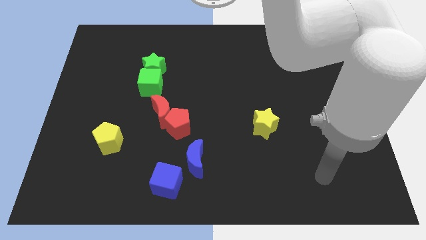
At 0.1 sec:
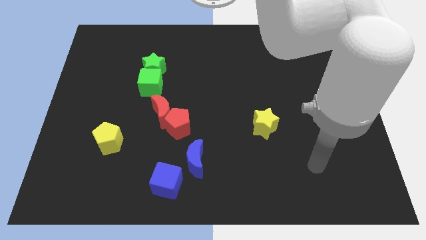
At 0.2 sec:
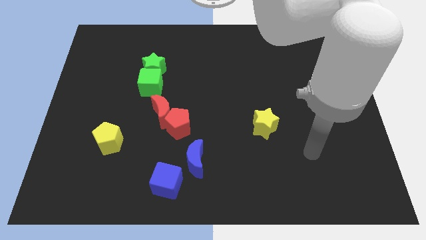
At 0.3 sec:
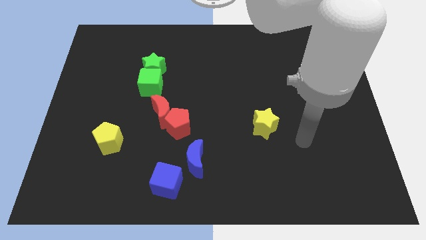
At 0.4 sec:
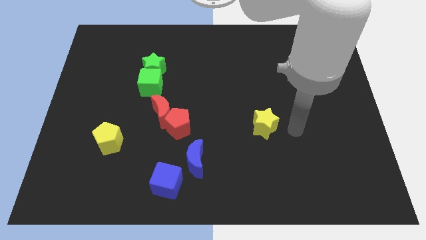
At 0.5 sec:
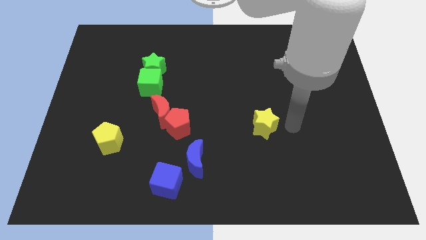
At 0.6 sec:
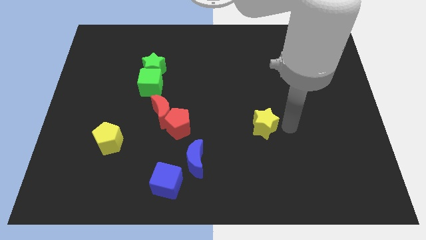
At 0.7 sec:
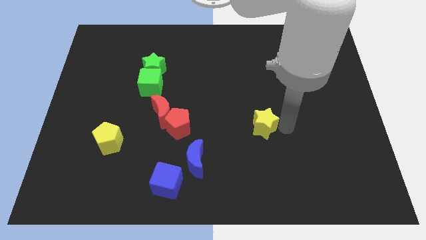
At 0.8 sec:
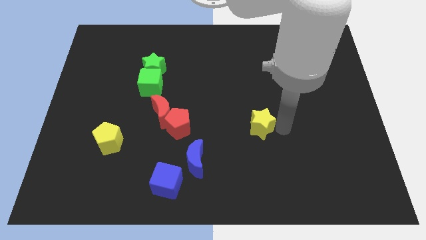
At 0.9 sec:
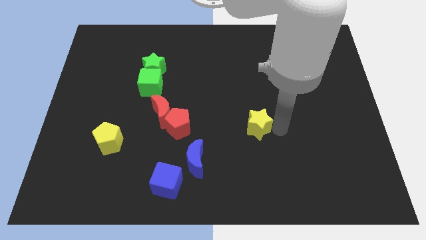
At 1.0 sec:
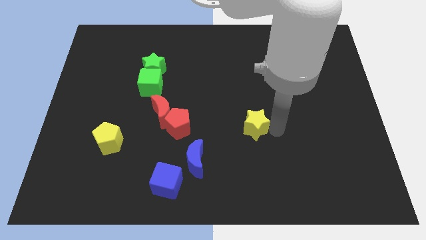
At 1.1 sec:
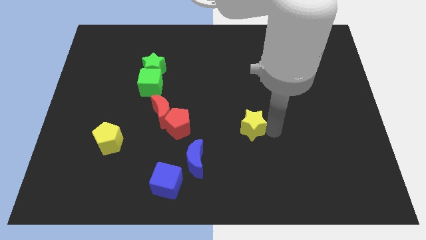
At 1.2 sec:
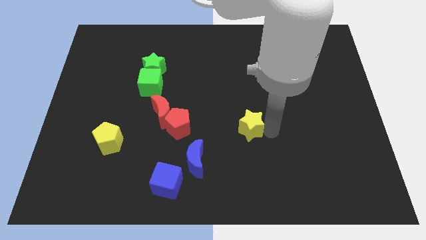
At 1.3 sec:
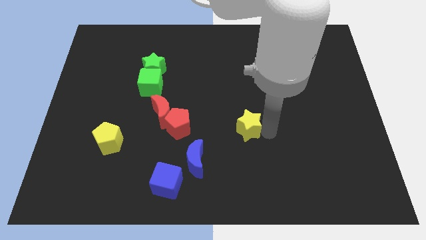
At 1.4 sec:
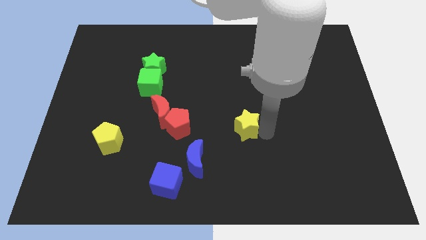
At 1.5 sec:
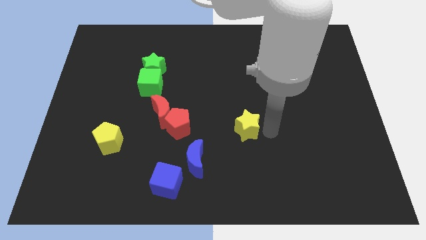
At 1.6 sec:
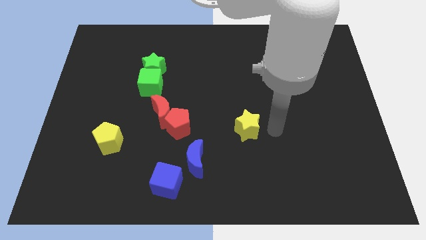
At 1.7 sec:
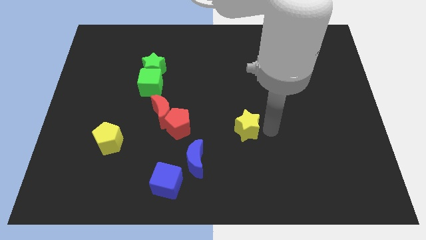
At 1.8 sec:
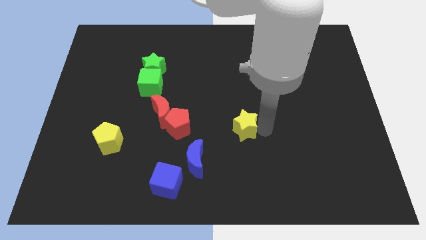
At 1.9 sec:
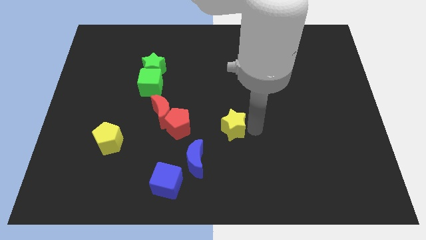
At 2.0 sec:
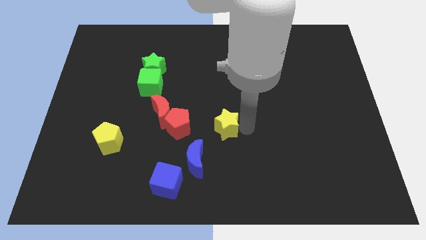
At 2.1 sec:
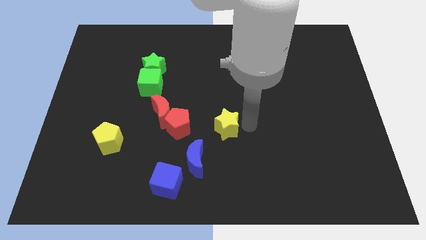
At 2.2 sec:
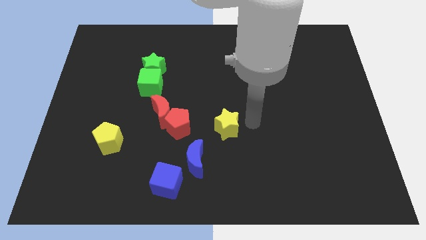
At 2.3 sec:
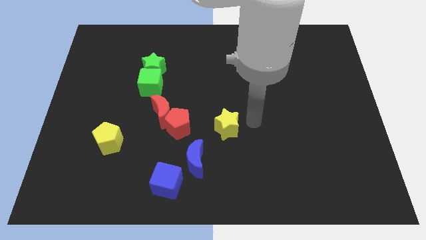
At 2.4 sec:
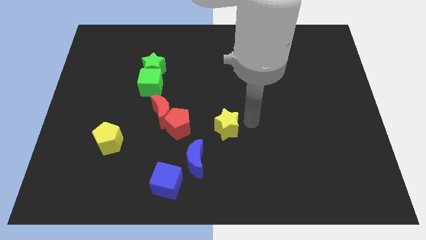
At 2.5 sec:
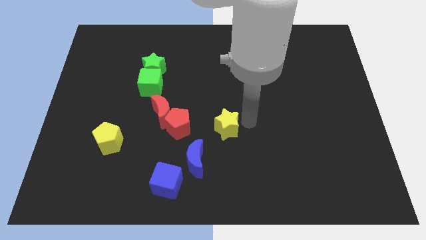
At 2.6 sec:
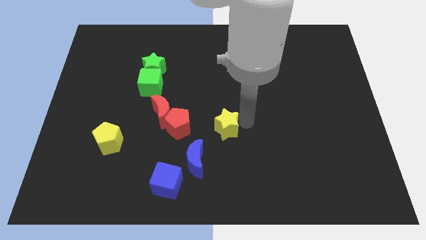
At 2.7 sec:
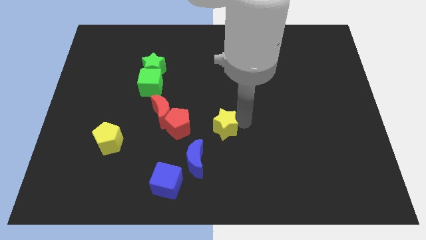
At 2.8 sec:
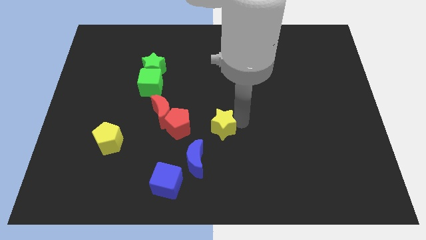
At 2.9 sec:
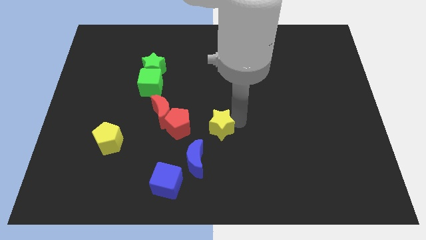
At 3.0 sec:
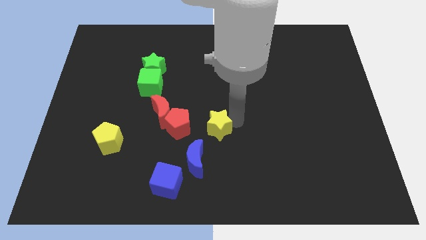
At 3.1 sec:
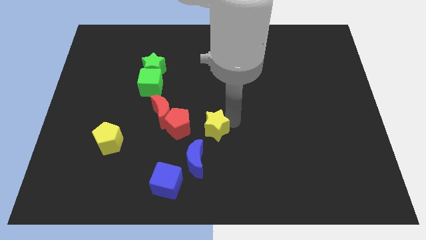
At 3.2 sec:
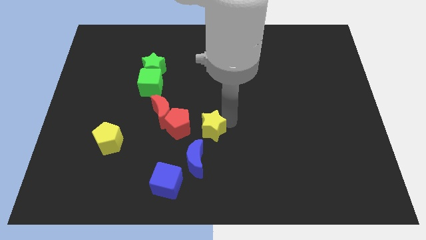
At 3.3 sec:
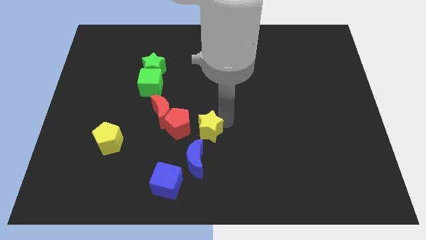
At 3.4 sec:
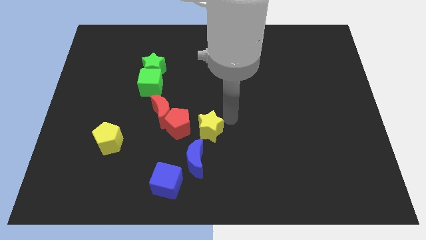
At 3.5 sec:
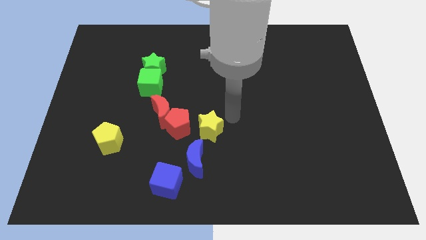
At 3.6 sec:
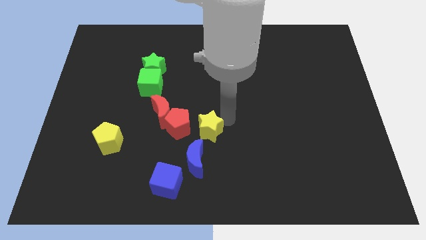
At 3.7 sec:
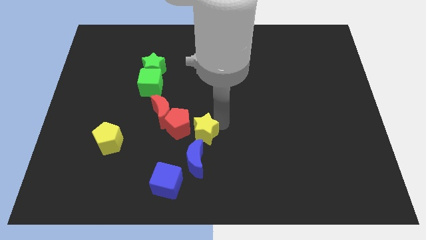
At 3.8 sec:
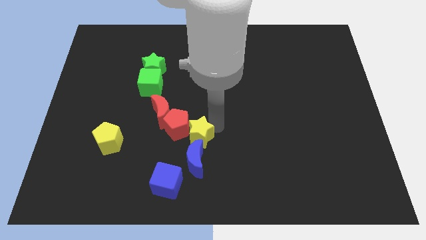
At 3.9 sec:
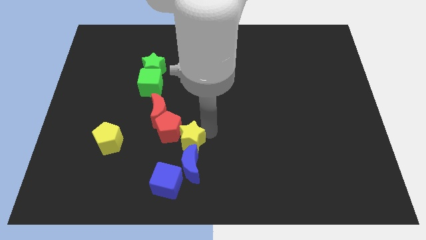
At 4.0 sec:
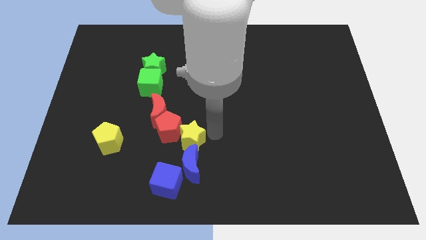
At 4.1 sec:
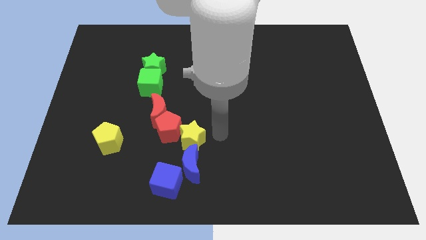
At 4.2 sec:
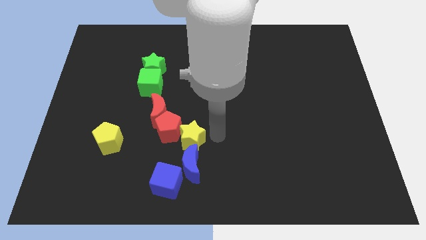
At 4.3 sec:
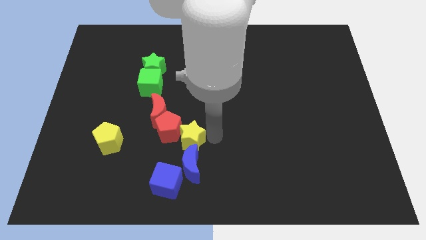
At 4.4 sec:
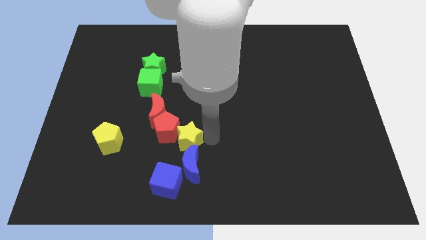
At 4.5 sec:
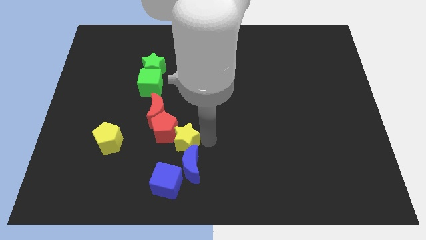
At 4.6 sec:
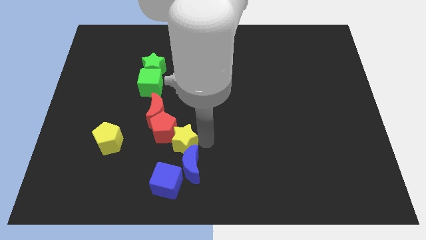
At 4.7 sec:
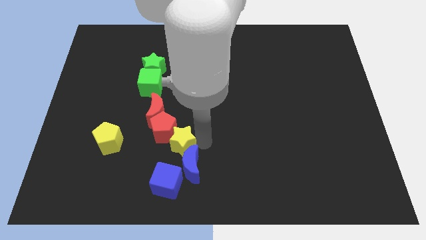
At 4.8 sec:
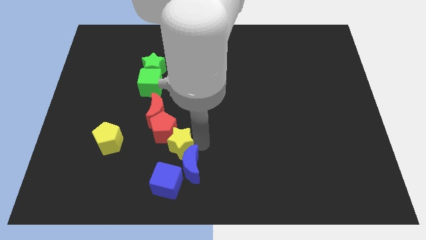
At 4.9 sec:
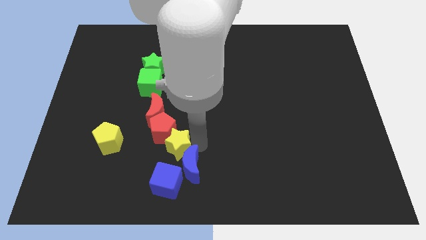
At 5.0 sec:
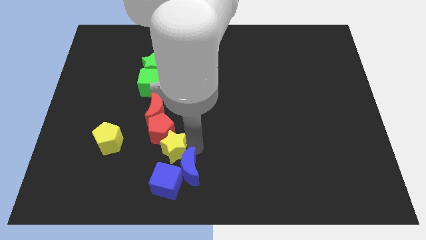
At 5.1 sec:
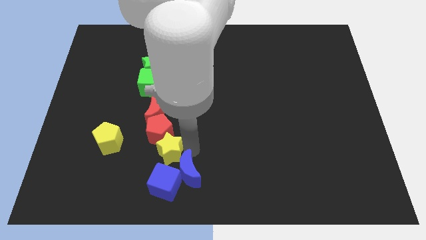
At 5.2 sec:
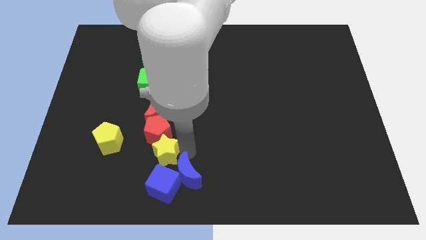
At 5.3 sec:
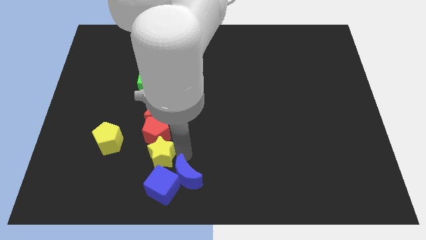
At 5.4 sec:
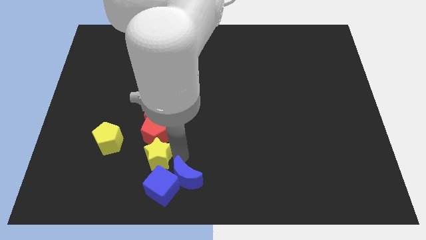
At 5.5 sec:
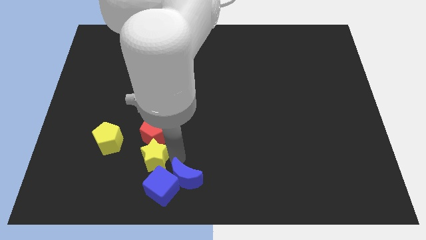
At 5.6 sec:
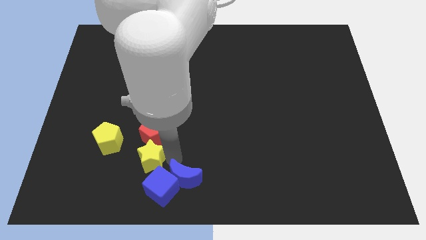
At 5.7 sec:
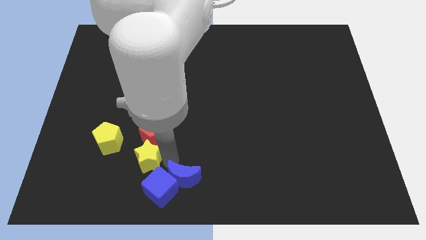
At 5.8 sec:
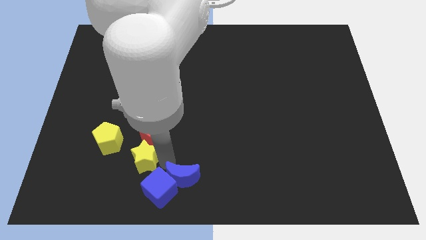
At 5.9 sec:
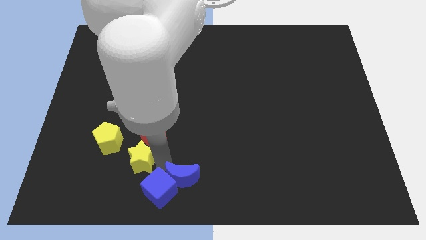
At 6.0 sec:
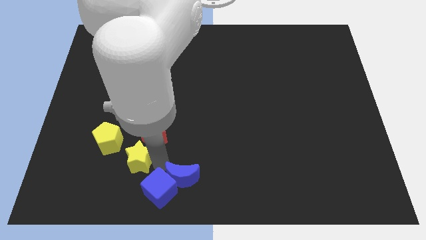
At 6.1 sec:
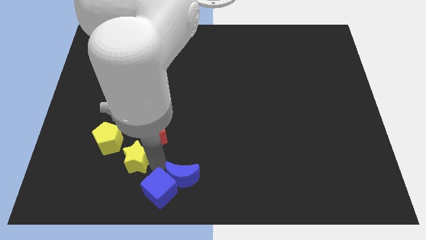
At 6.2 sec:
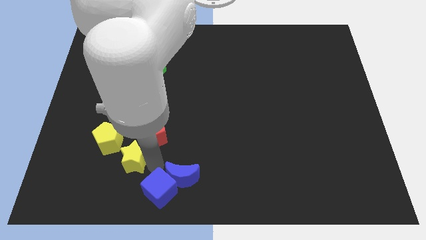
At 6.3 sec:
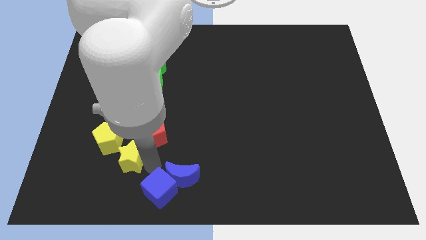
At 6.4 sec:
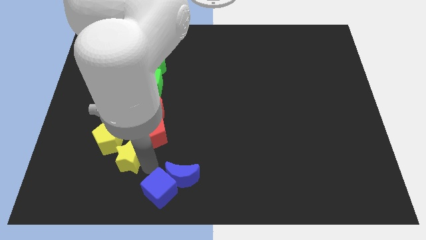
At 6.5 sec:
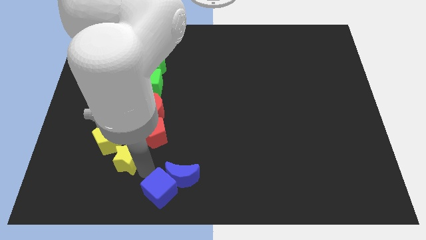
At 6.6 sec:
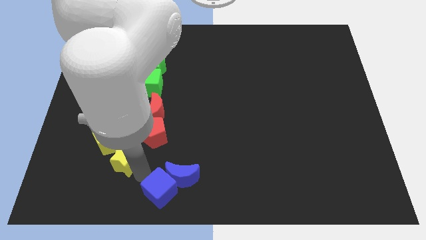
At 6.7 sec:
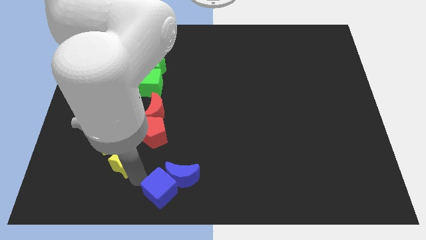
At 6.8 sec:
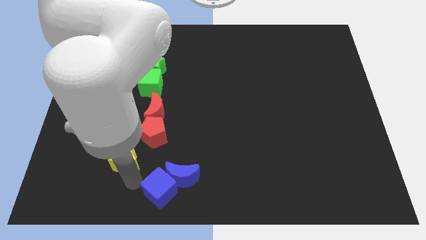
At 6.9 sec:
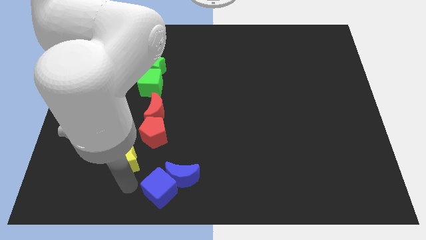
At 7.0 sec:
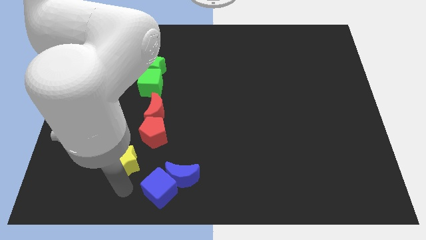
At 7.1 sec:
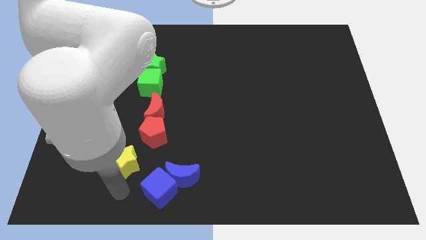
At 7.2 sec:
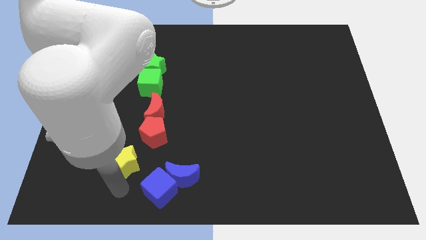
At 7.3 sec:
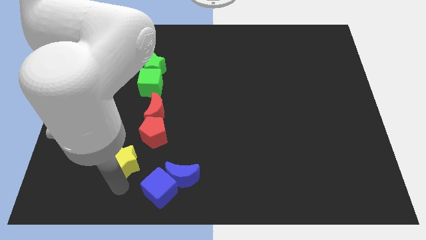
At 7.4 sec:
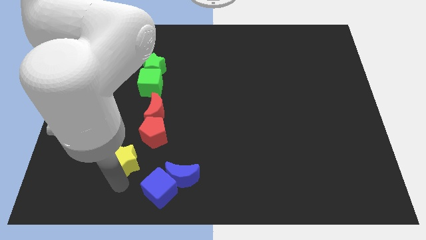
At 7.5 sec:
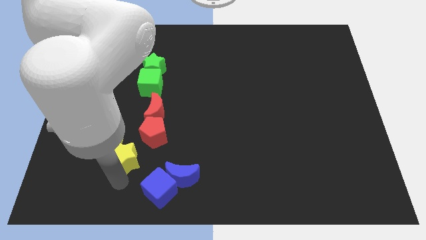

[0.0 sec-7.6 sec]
push the yellow star close to the yellow pentagon

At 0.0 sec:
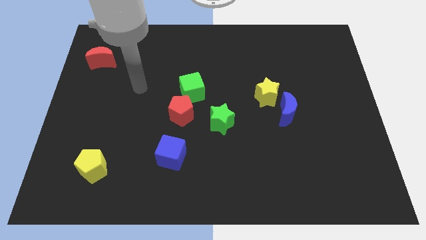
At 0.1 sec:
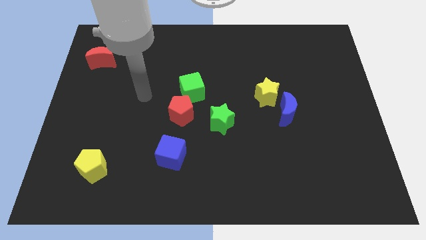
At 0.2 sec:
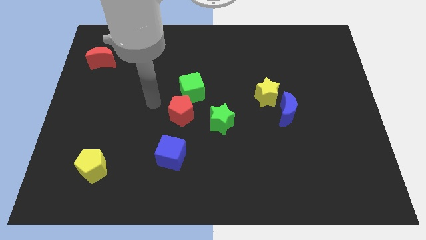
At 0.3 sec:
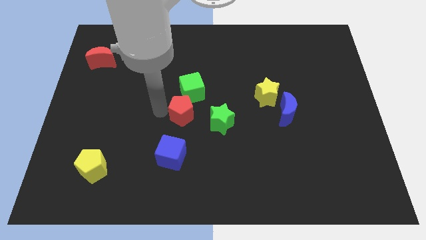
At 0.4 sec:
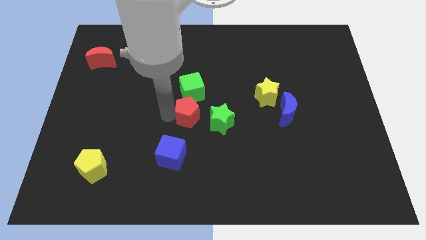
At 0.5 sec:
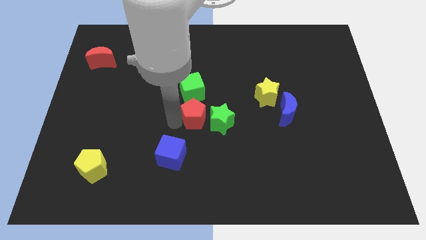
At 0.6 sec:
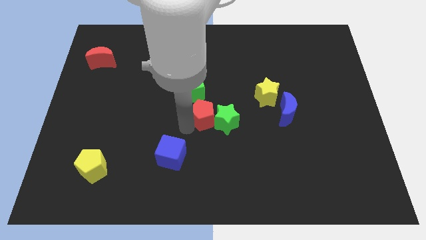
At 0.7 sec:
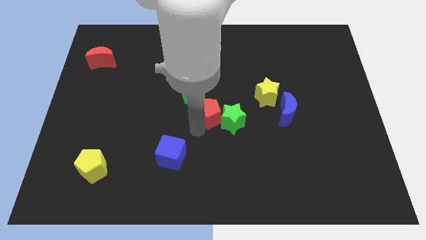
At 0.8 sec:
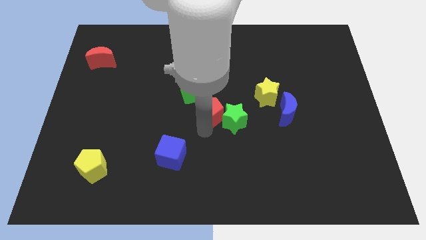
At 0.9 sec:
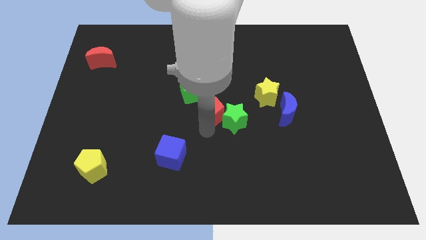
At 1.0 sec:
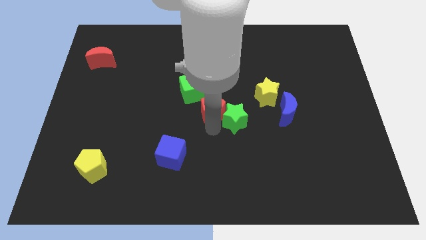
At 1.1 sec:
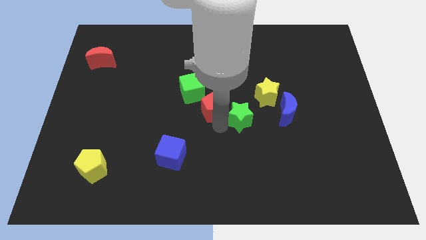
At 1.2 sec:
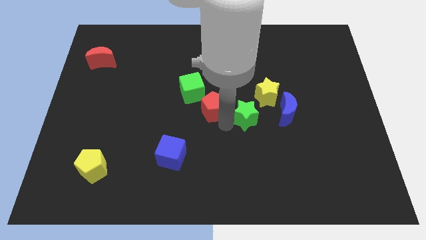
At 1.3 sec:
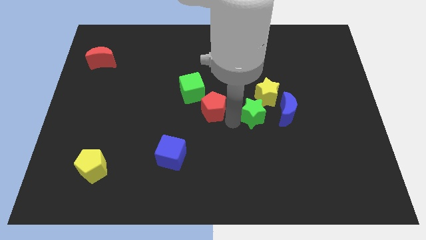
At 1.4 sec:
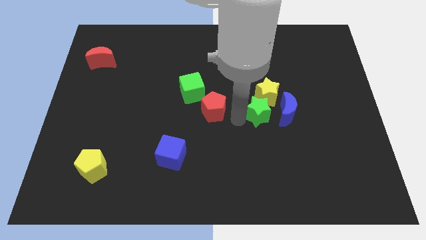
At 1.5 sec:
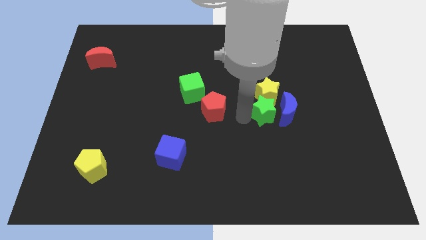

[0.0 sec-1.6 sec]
put the green star next to the blue moon
